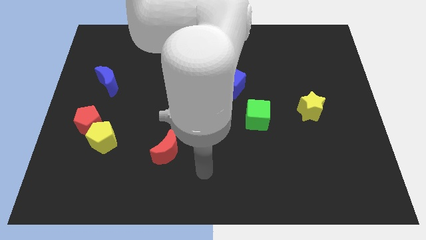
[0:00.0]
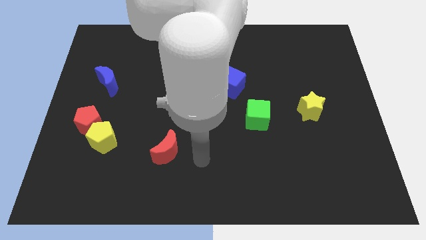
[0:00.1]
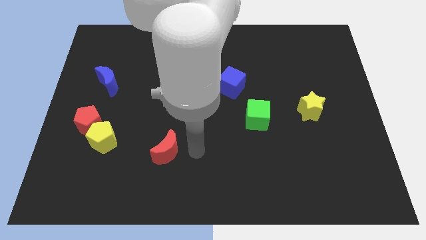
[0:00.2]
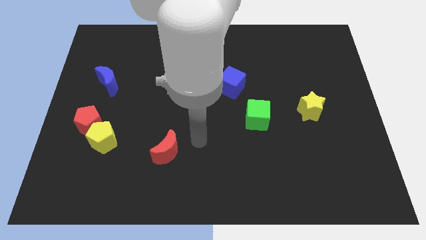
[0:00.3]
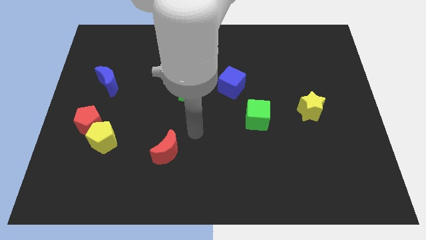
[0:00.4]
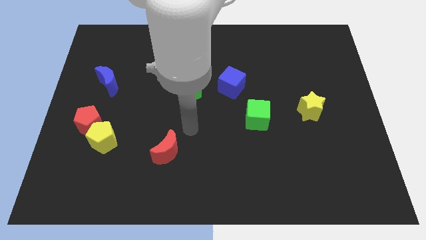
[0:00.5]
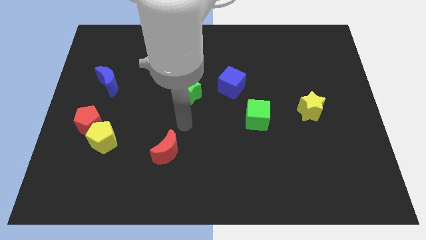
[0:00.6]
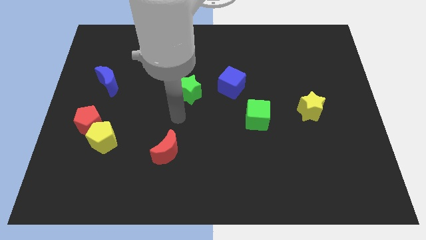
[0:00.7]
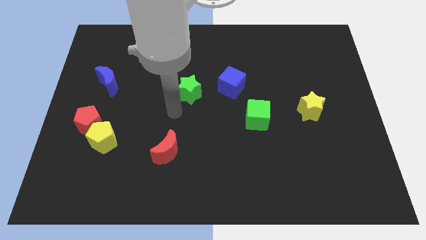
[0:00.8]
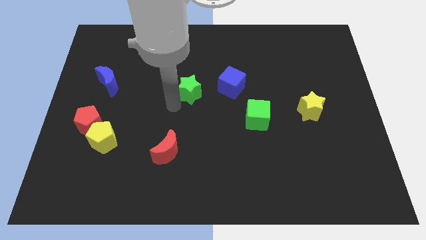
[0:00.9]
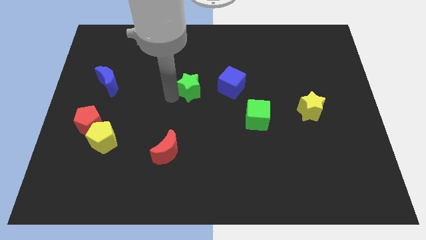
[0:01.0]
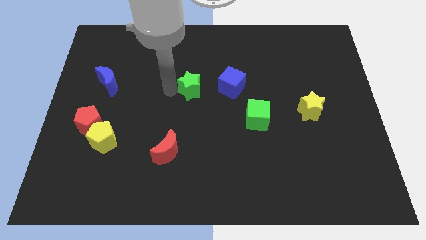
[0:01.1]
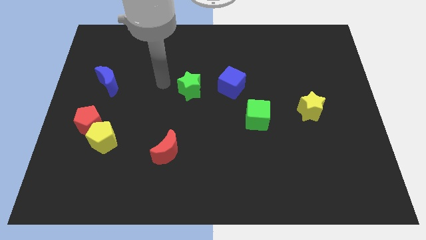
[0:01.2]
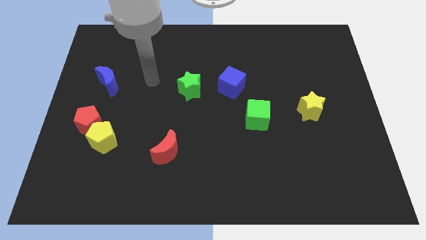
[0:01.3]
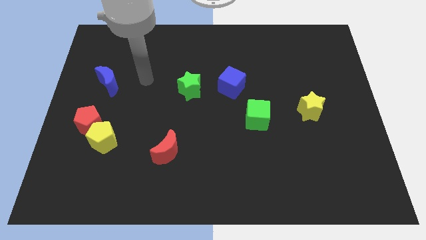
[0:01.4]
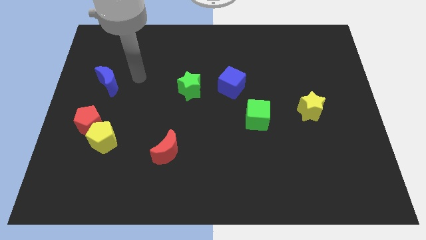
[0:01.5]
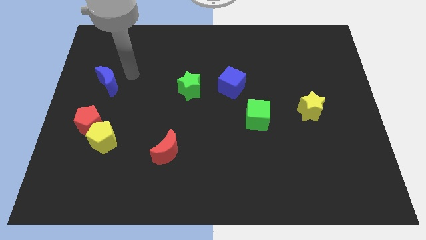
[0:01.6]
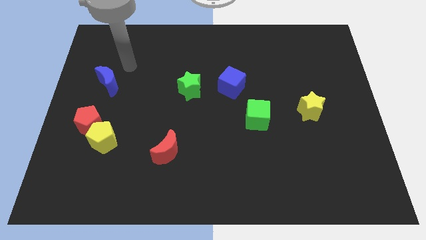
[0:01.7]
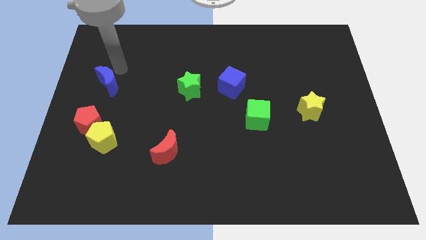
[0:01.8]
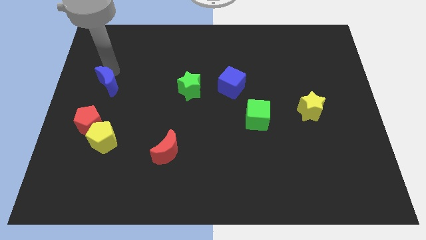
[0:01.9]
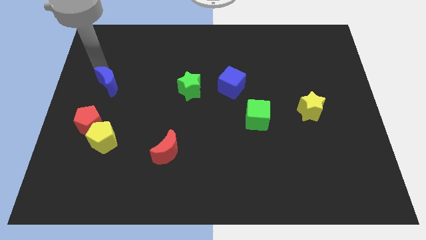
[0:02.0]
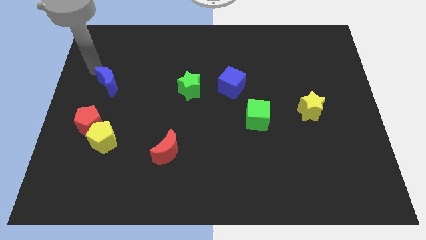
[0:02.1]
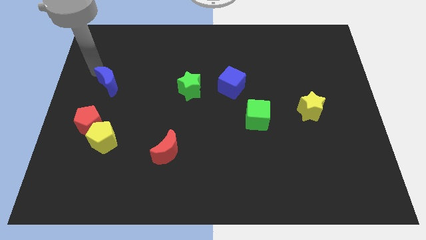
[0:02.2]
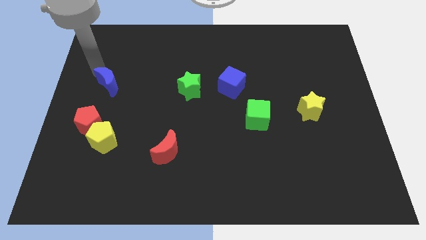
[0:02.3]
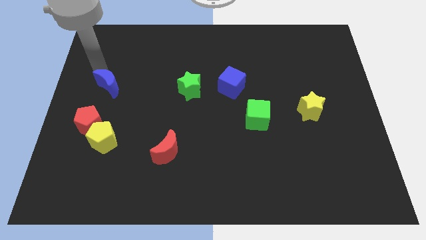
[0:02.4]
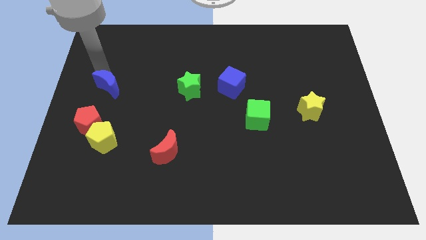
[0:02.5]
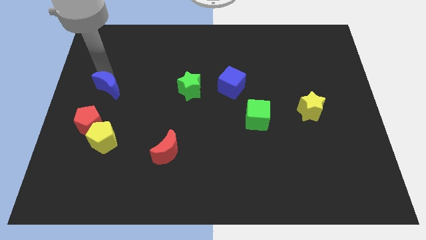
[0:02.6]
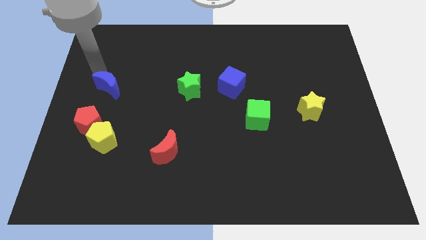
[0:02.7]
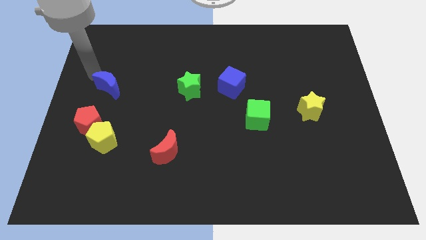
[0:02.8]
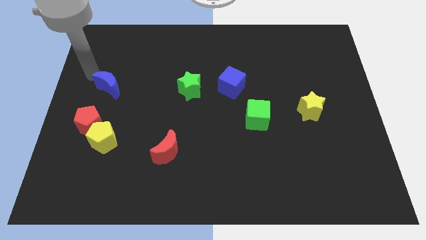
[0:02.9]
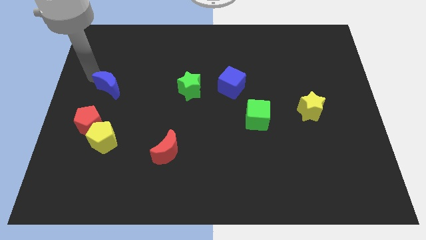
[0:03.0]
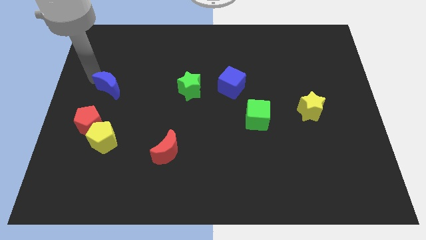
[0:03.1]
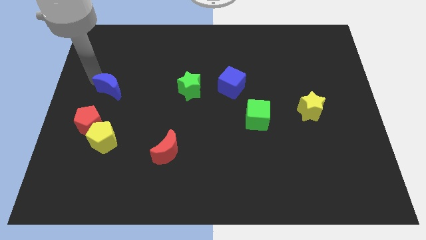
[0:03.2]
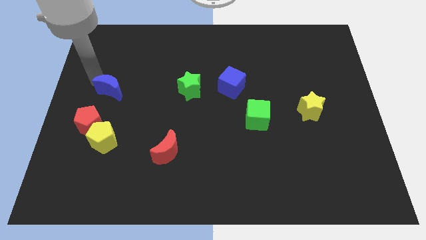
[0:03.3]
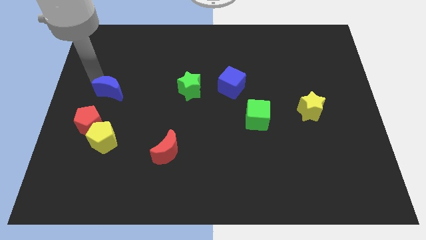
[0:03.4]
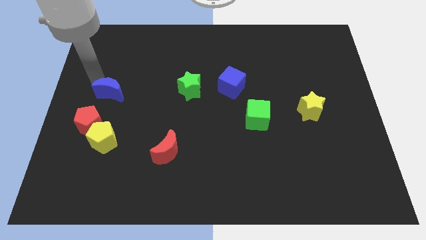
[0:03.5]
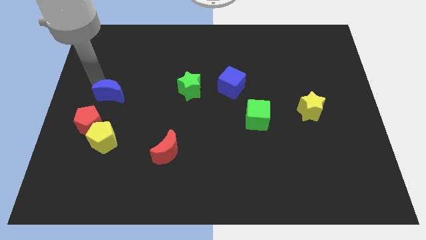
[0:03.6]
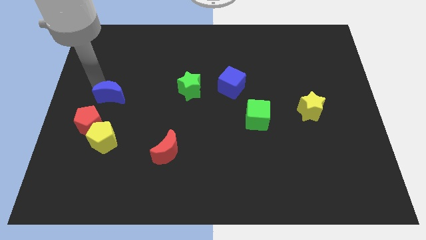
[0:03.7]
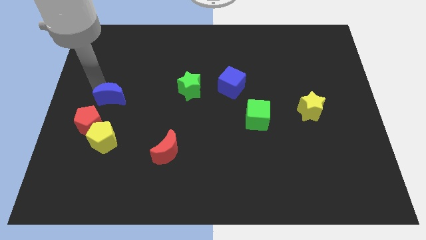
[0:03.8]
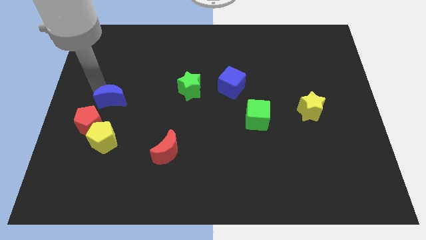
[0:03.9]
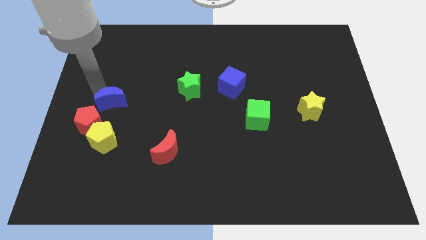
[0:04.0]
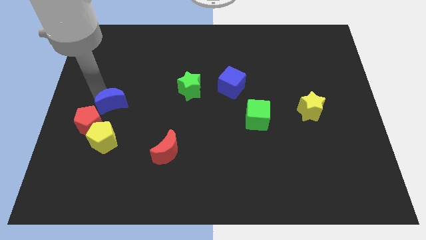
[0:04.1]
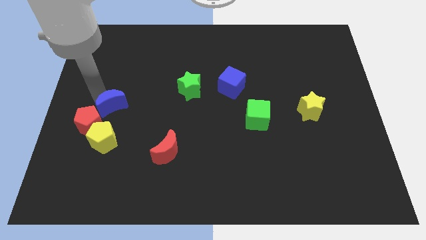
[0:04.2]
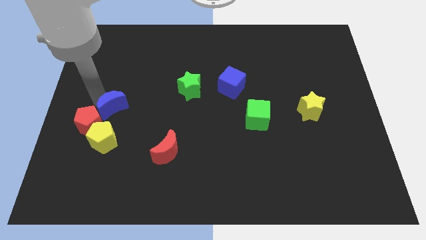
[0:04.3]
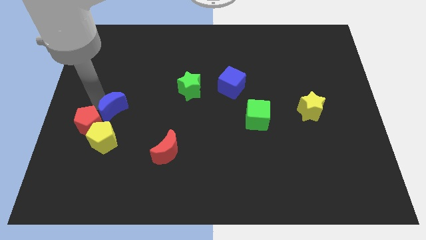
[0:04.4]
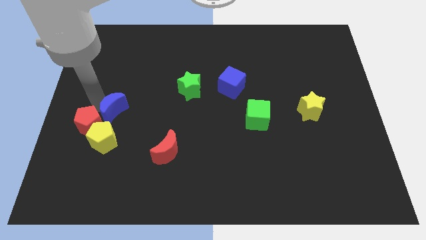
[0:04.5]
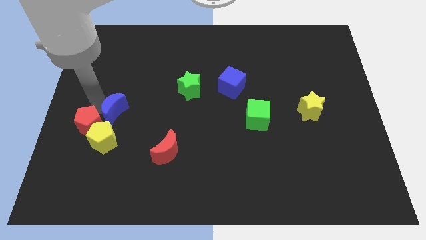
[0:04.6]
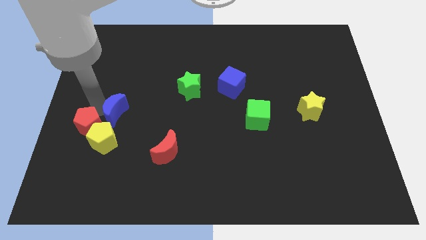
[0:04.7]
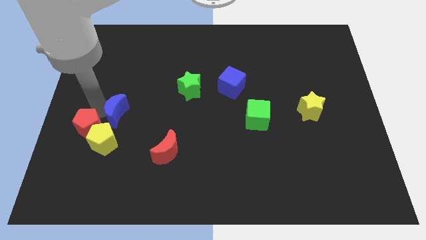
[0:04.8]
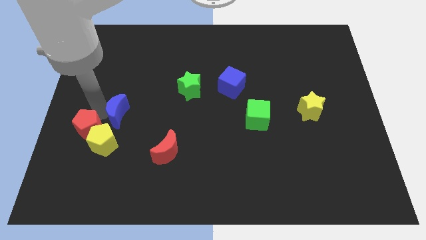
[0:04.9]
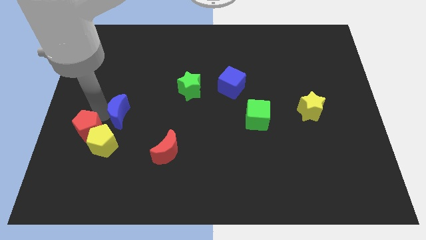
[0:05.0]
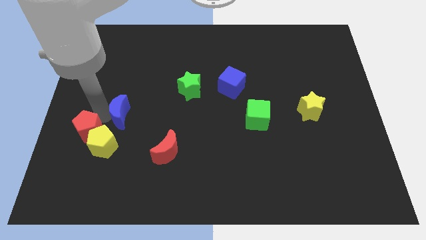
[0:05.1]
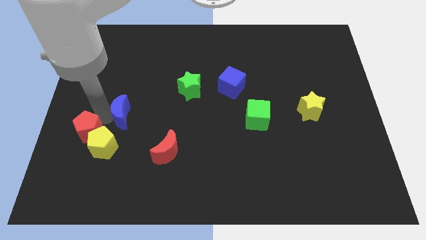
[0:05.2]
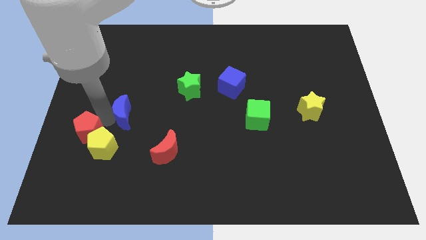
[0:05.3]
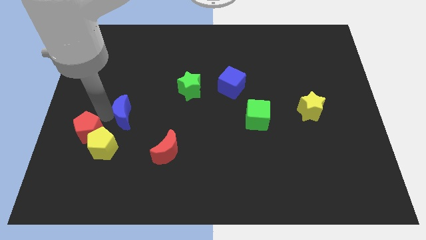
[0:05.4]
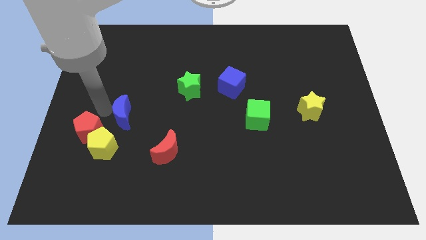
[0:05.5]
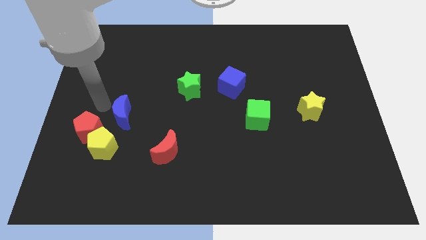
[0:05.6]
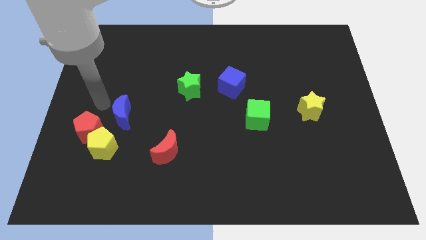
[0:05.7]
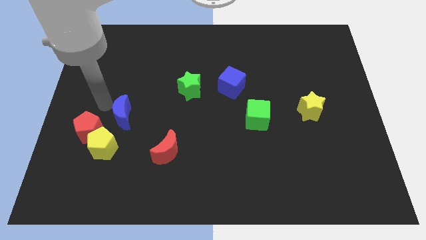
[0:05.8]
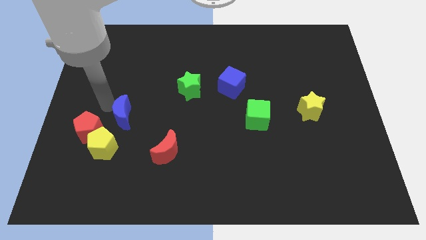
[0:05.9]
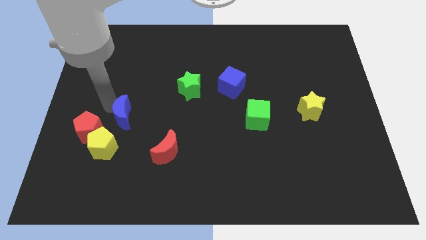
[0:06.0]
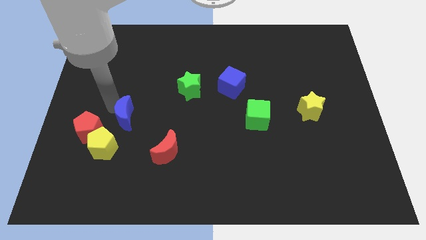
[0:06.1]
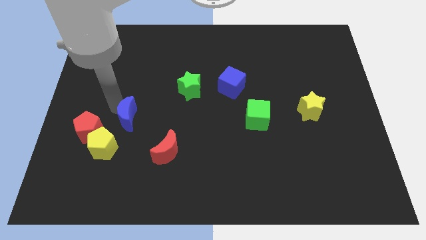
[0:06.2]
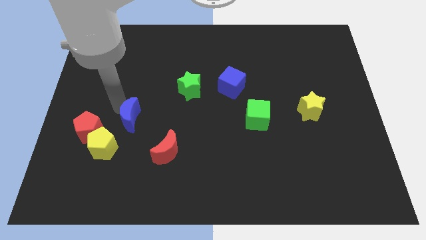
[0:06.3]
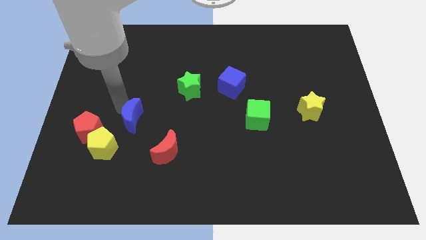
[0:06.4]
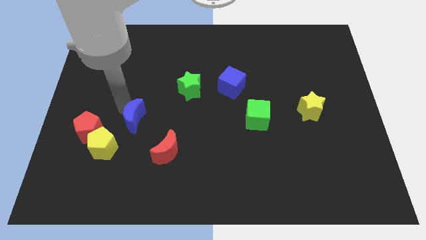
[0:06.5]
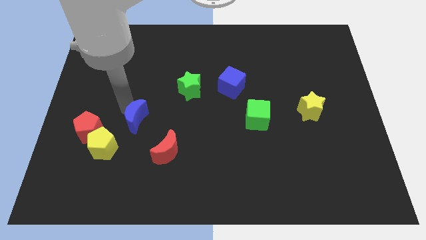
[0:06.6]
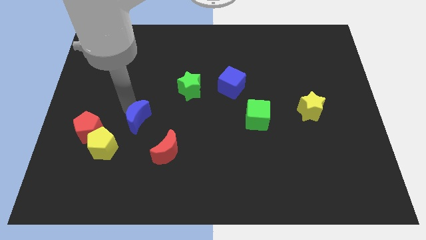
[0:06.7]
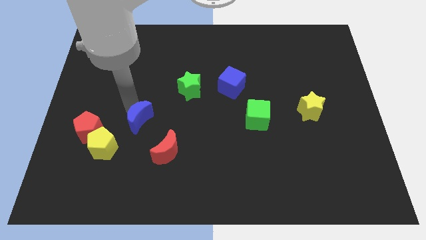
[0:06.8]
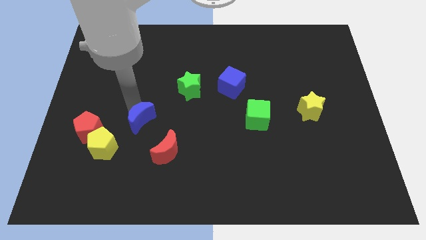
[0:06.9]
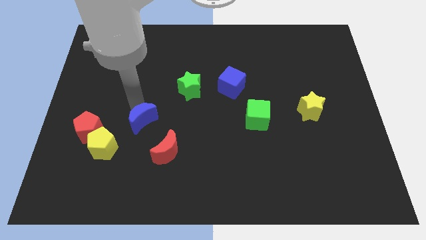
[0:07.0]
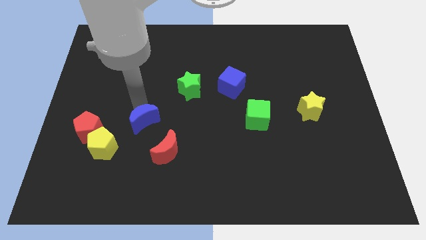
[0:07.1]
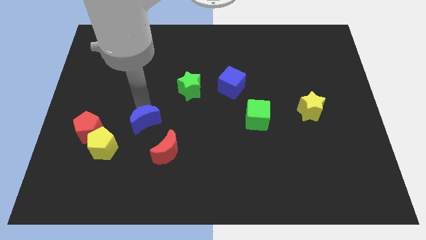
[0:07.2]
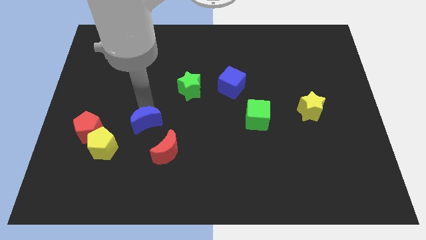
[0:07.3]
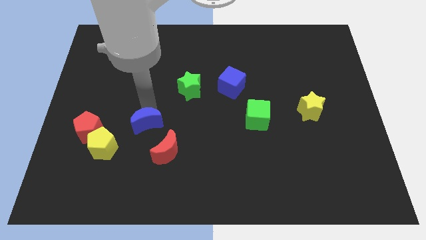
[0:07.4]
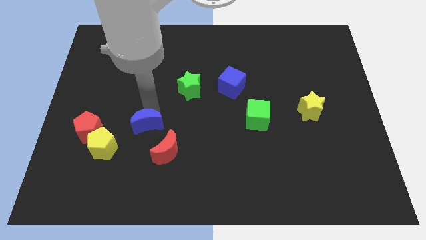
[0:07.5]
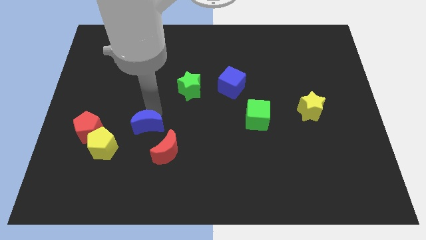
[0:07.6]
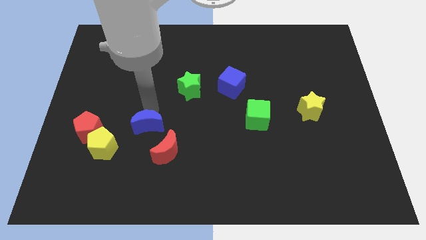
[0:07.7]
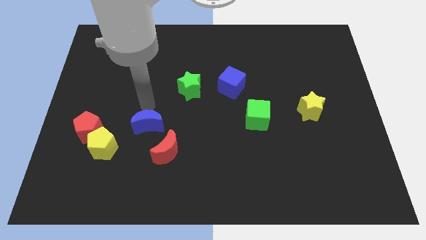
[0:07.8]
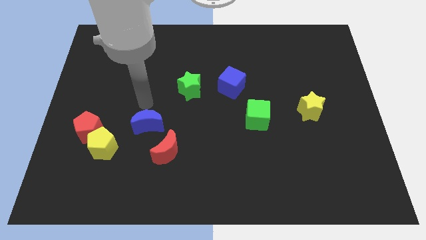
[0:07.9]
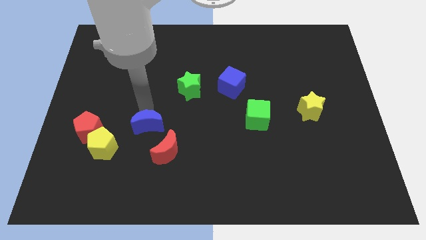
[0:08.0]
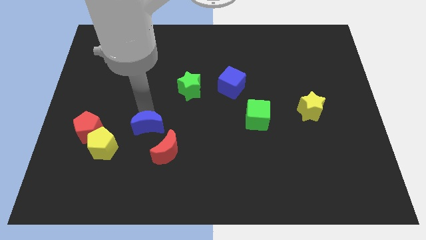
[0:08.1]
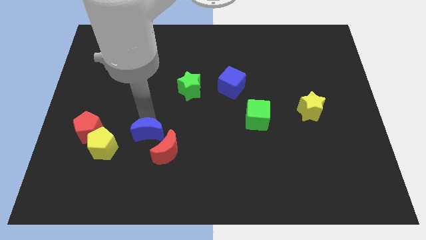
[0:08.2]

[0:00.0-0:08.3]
push the blue moon just right of the yellow pentagon
